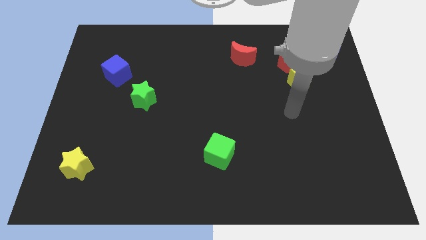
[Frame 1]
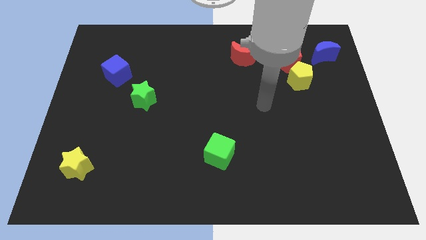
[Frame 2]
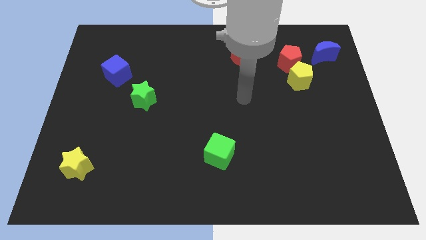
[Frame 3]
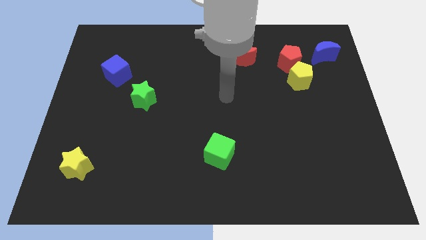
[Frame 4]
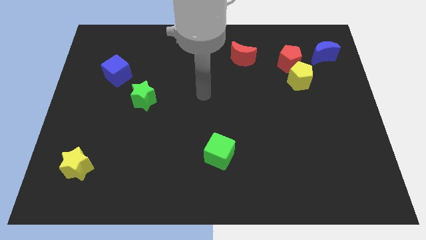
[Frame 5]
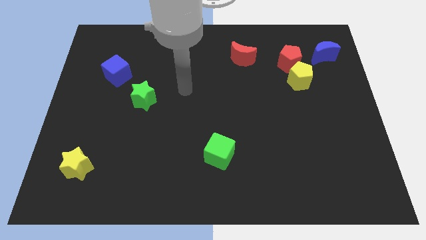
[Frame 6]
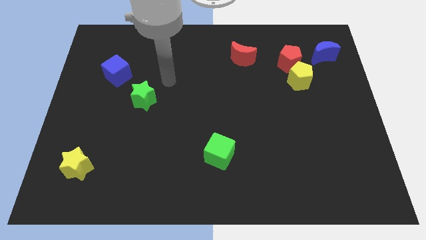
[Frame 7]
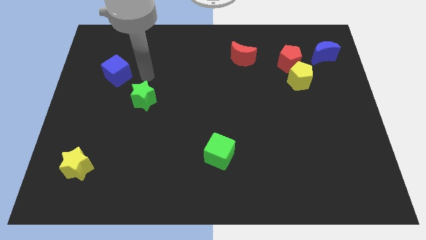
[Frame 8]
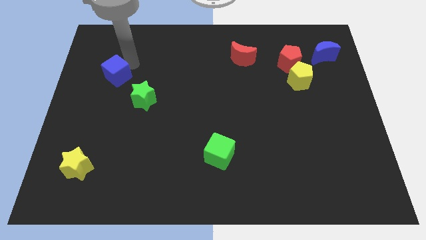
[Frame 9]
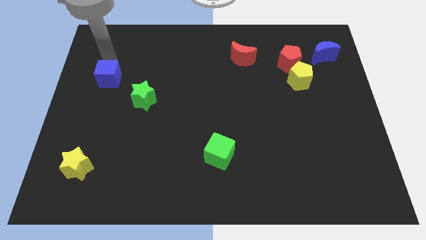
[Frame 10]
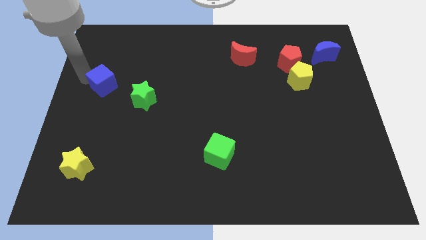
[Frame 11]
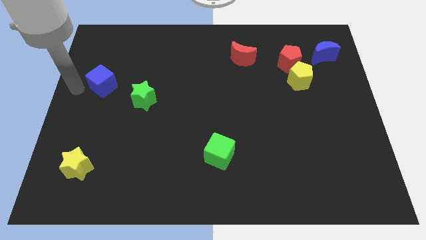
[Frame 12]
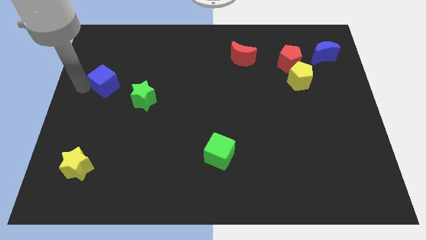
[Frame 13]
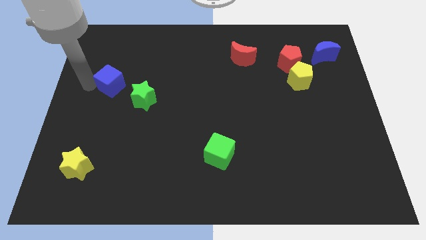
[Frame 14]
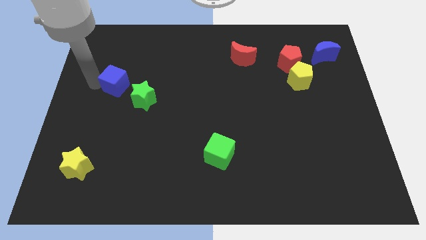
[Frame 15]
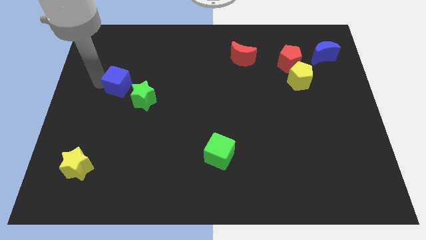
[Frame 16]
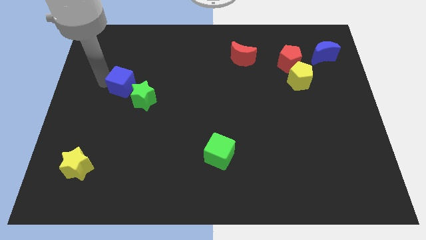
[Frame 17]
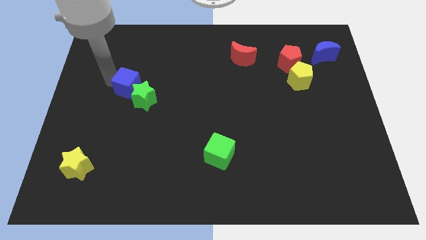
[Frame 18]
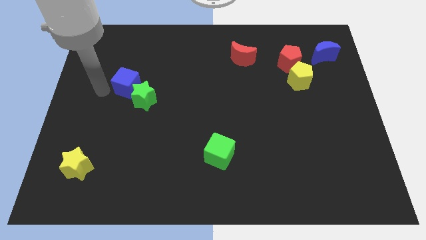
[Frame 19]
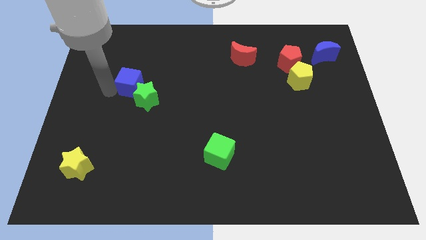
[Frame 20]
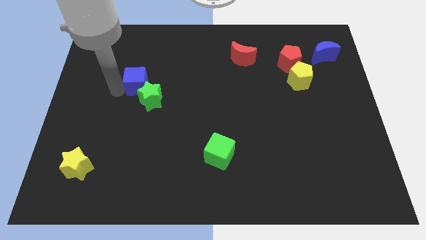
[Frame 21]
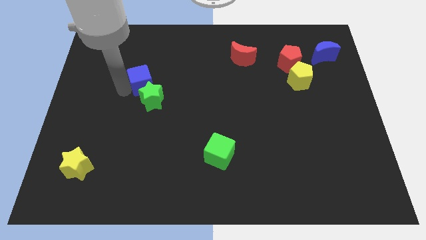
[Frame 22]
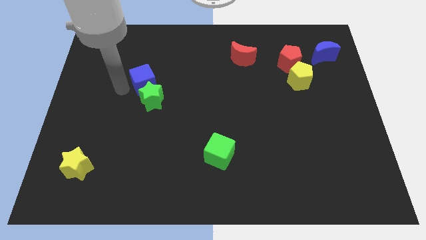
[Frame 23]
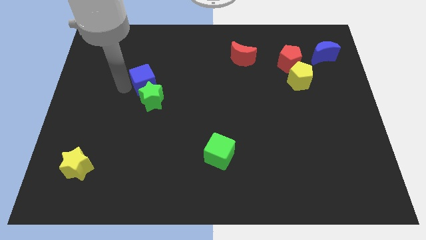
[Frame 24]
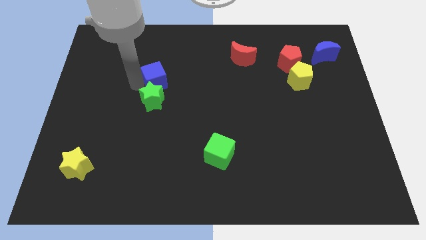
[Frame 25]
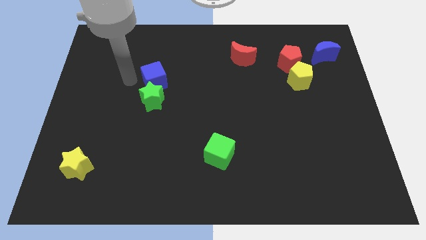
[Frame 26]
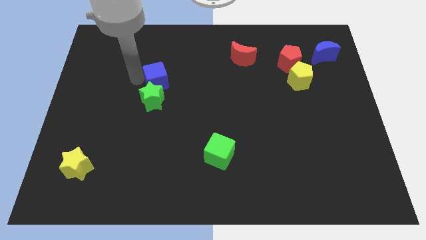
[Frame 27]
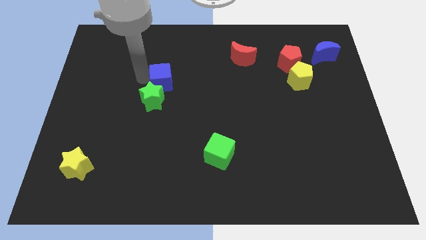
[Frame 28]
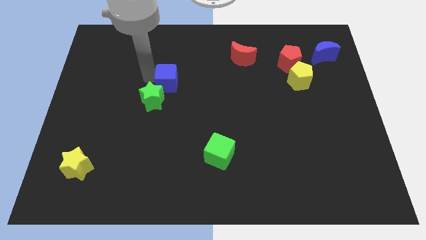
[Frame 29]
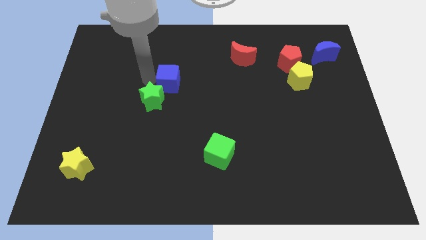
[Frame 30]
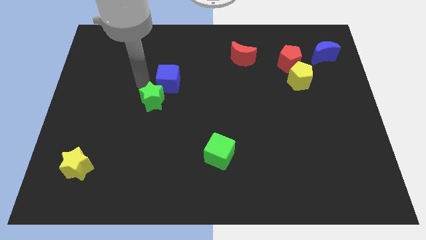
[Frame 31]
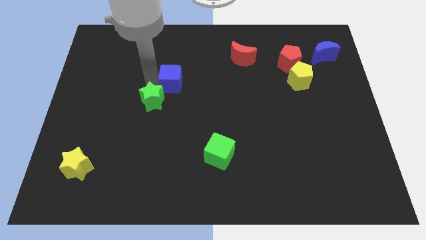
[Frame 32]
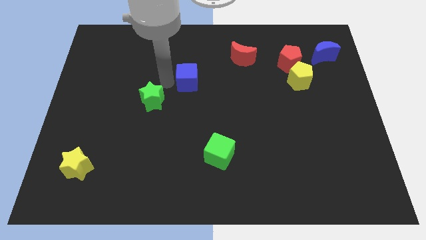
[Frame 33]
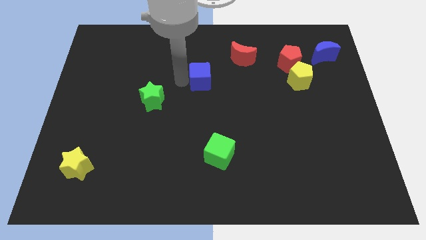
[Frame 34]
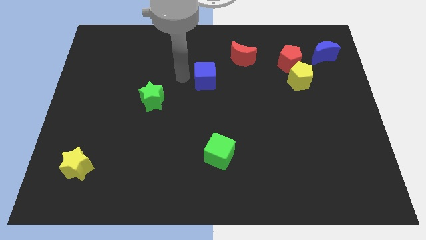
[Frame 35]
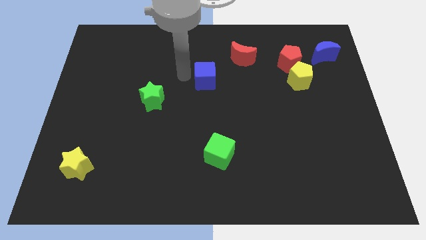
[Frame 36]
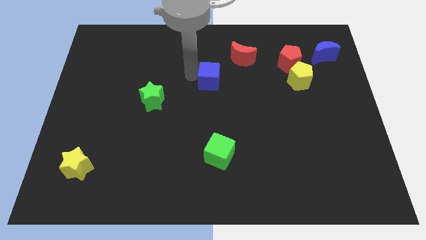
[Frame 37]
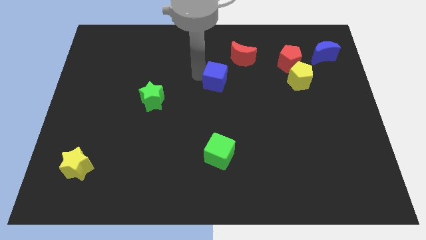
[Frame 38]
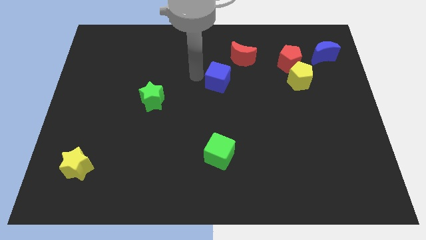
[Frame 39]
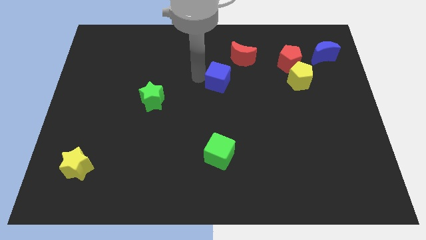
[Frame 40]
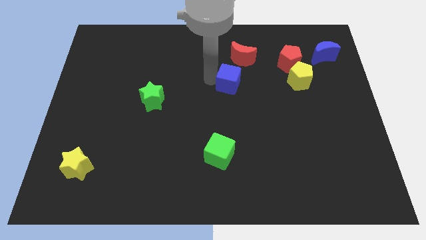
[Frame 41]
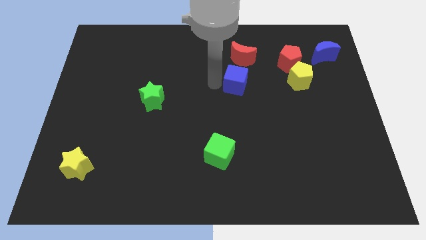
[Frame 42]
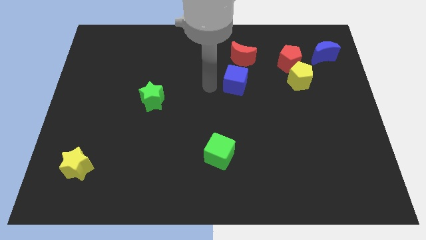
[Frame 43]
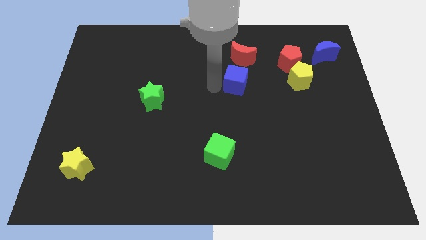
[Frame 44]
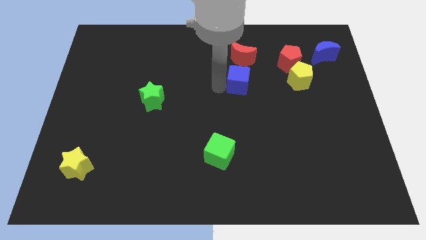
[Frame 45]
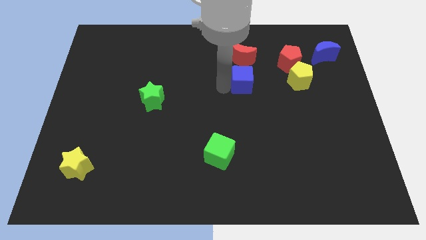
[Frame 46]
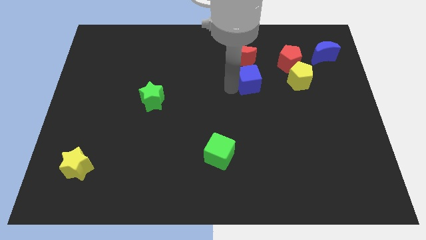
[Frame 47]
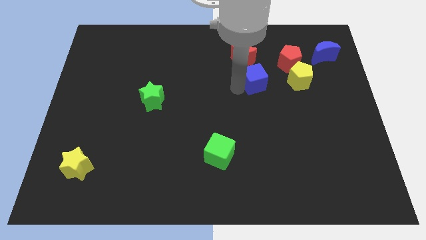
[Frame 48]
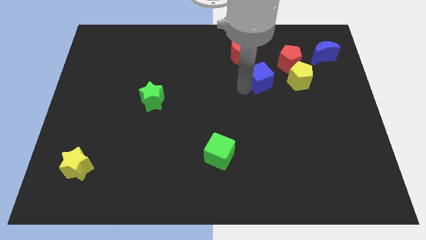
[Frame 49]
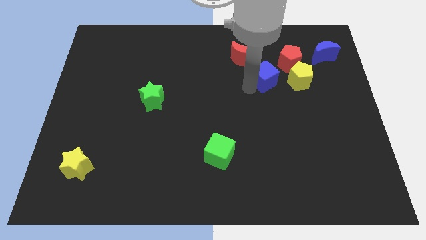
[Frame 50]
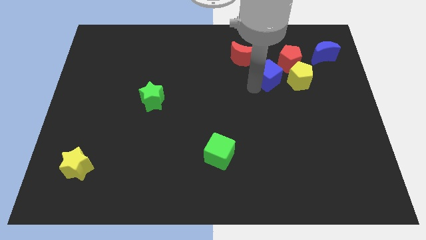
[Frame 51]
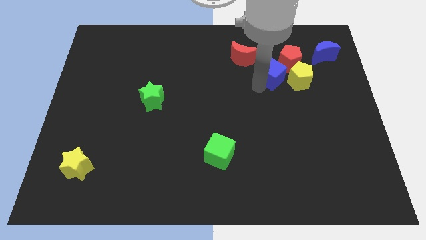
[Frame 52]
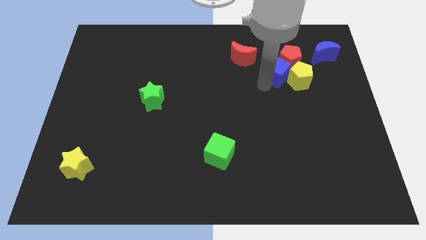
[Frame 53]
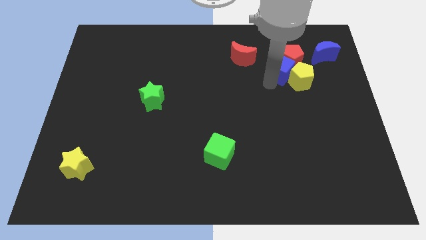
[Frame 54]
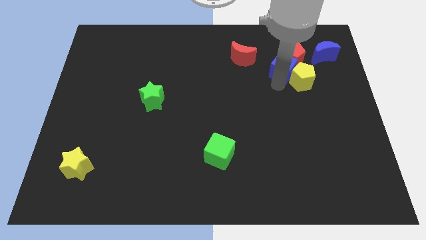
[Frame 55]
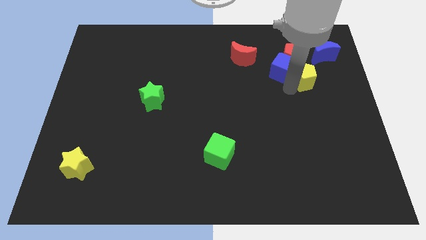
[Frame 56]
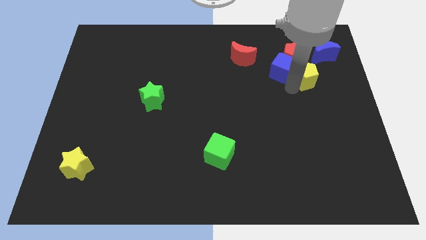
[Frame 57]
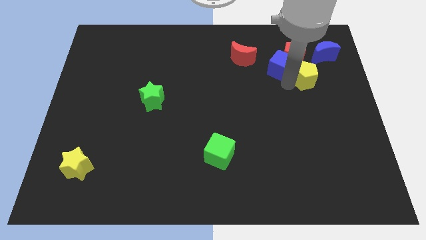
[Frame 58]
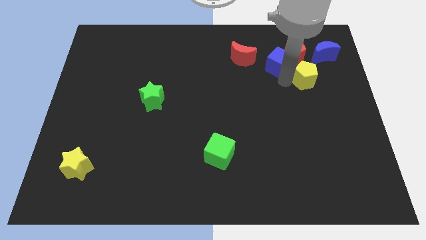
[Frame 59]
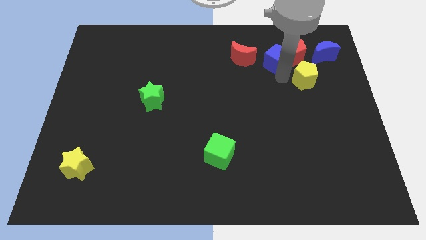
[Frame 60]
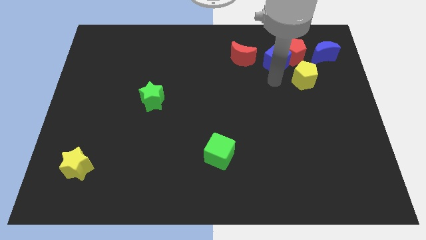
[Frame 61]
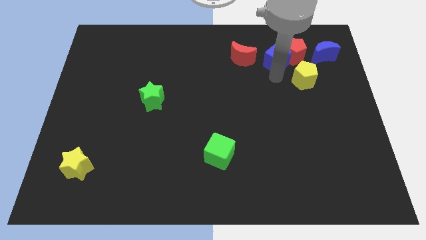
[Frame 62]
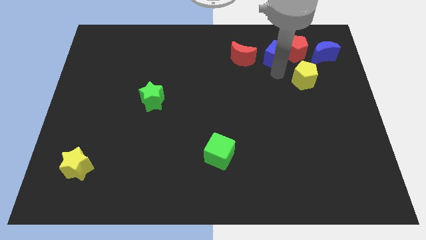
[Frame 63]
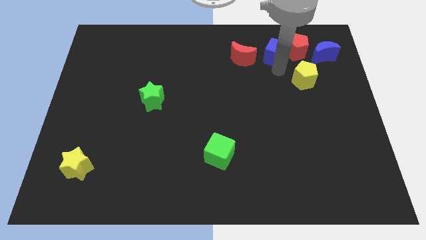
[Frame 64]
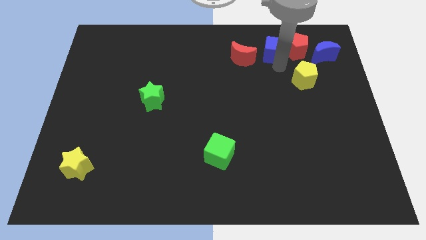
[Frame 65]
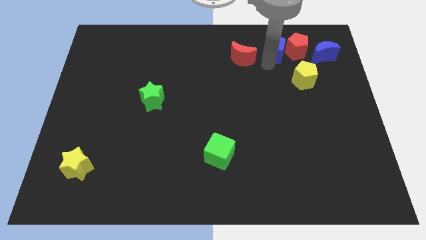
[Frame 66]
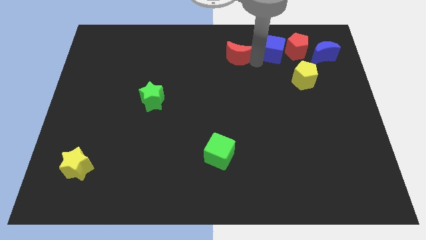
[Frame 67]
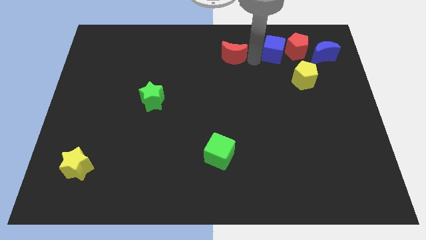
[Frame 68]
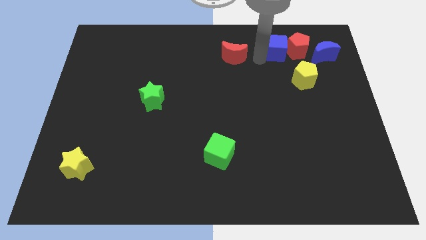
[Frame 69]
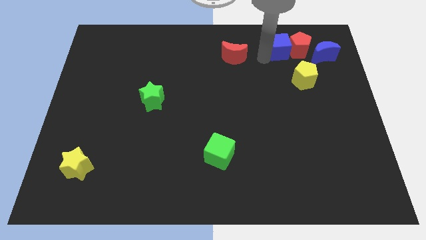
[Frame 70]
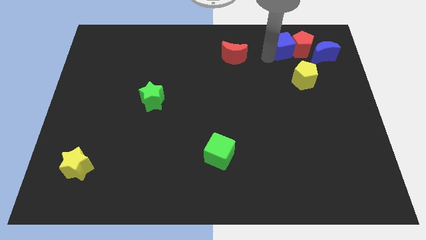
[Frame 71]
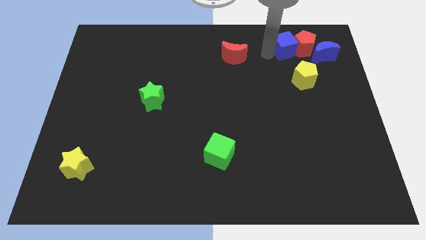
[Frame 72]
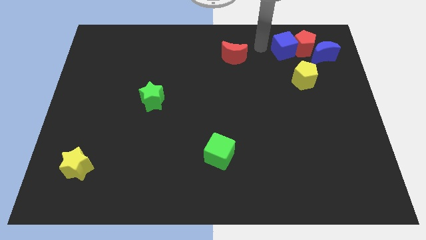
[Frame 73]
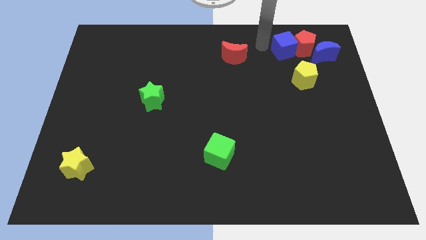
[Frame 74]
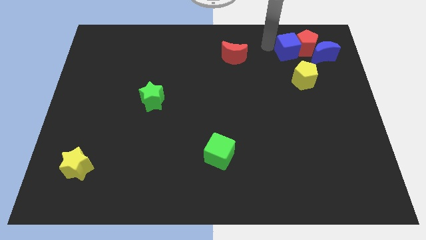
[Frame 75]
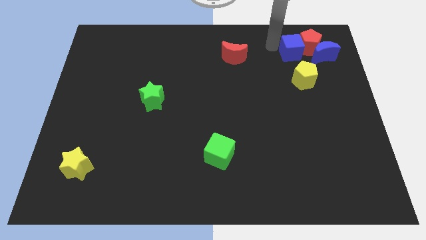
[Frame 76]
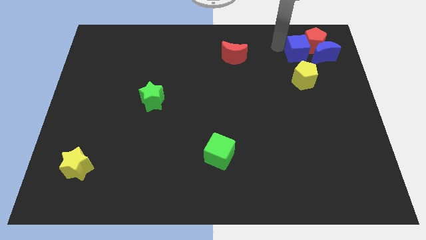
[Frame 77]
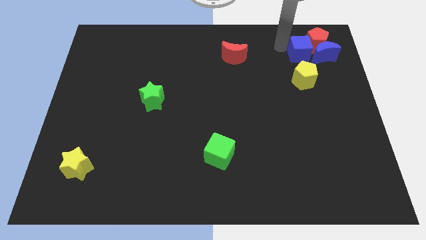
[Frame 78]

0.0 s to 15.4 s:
slide the blue cube next to the blue moon
